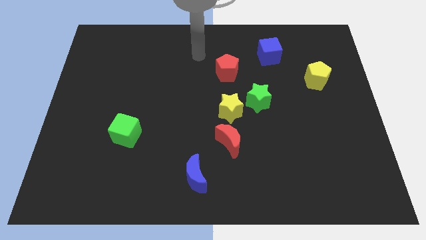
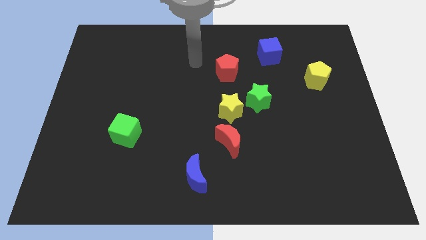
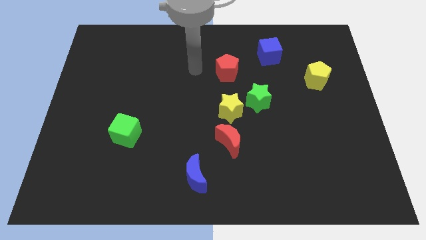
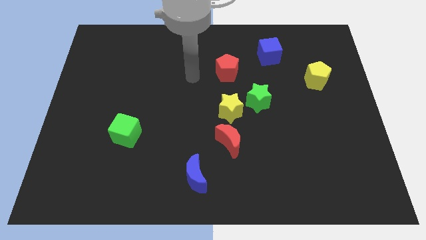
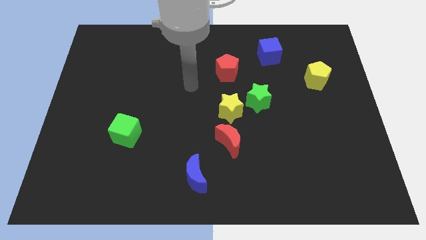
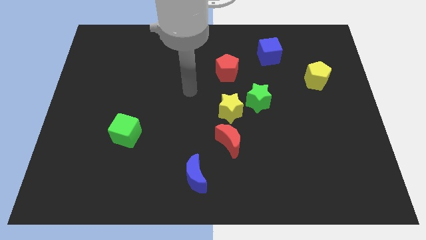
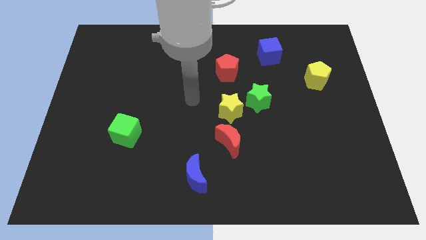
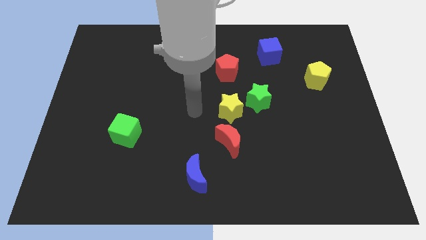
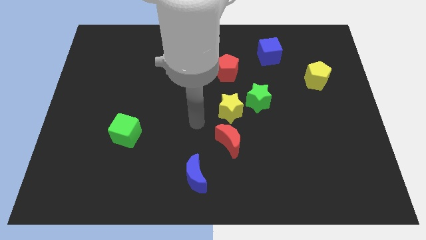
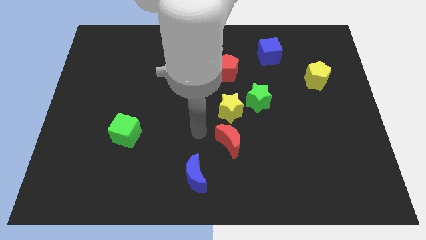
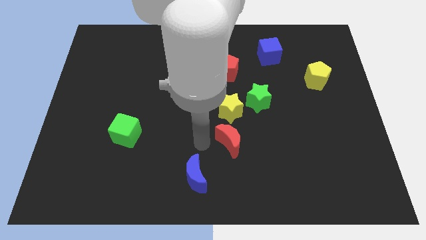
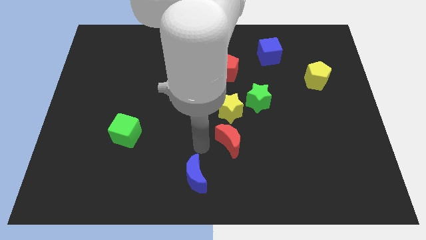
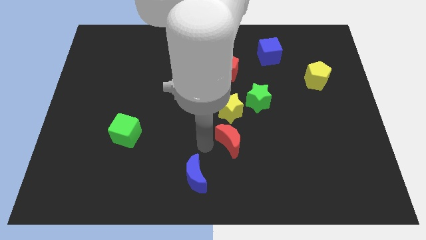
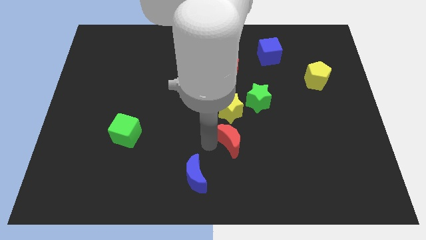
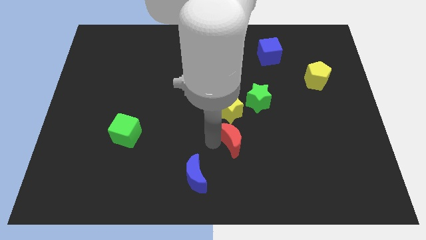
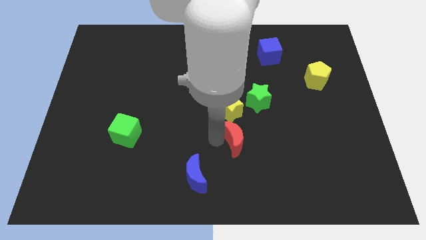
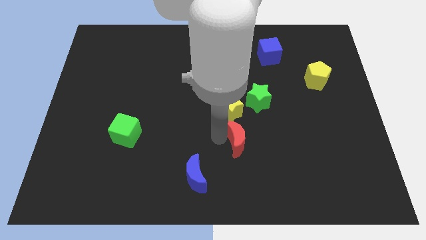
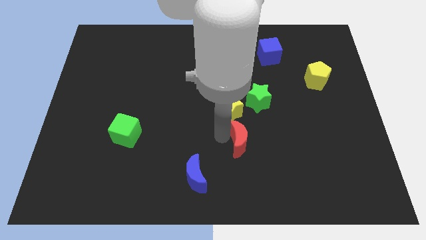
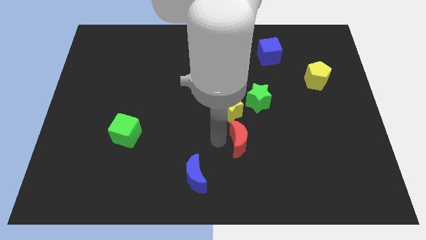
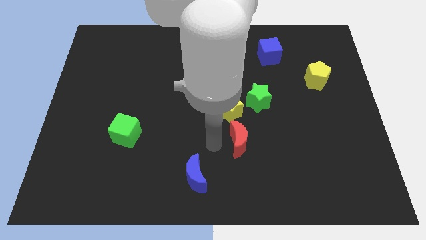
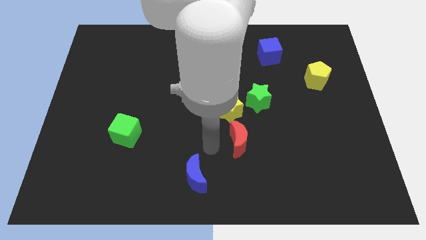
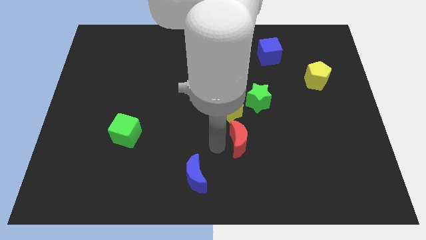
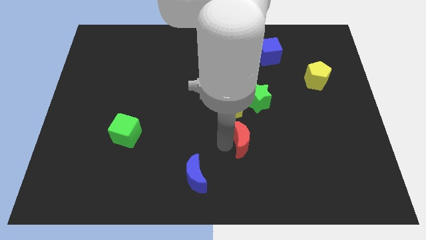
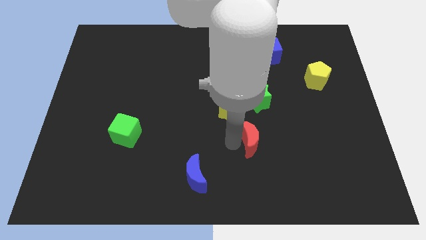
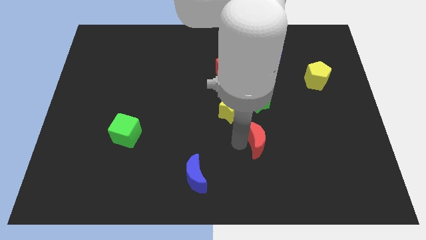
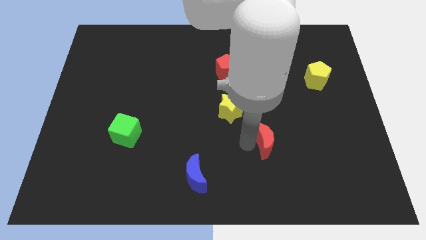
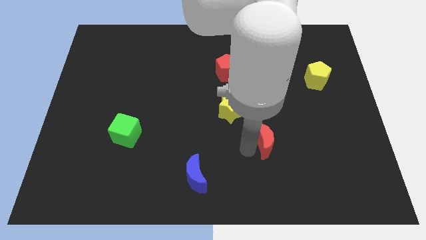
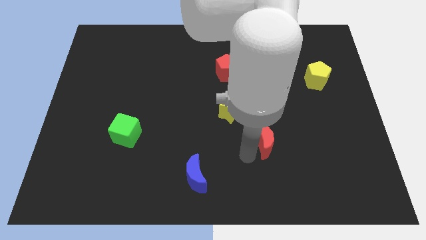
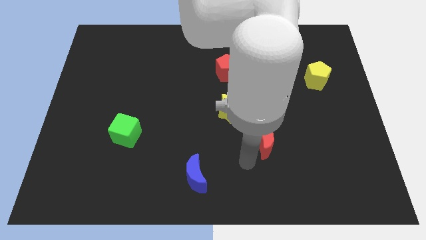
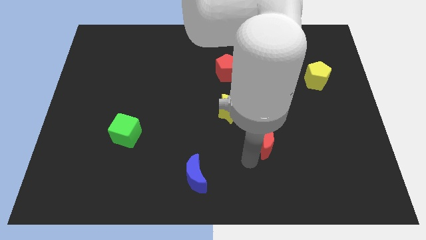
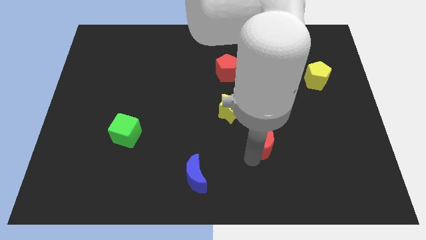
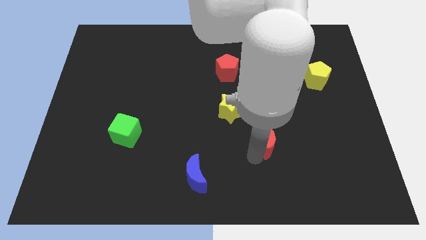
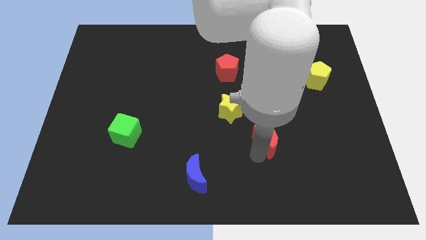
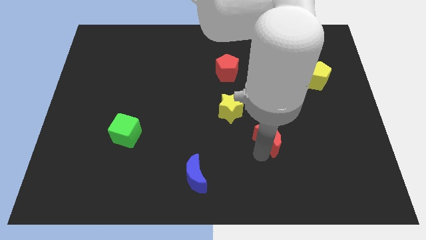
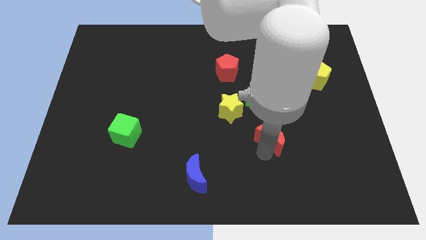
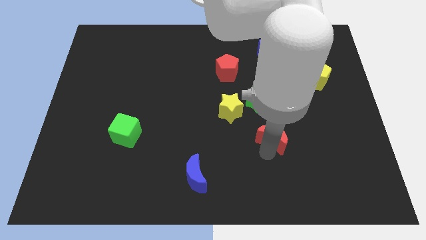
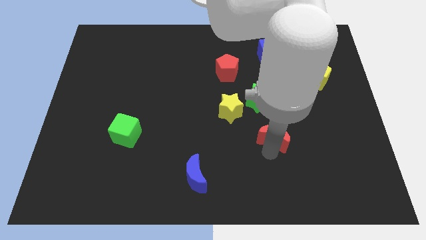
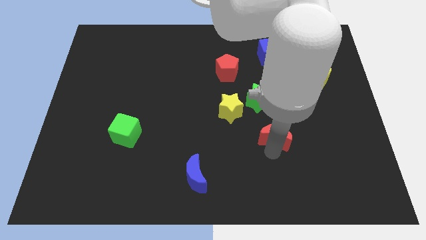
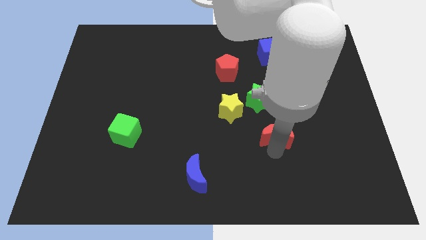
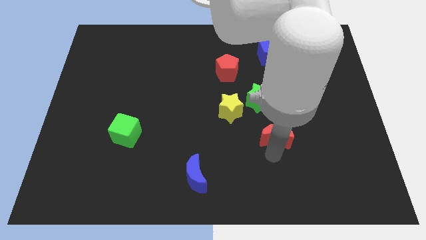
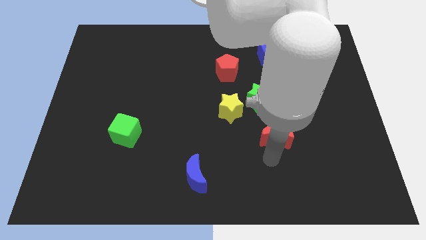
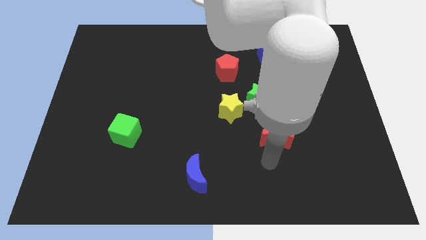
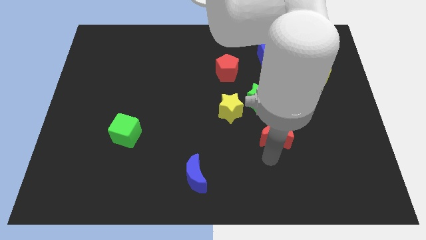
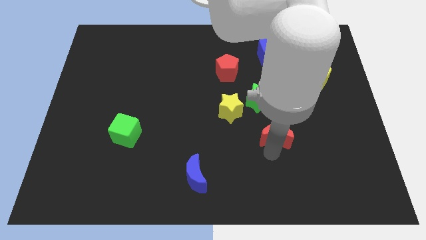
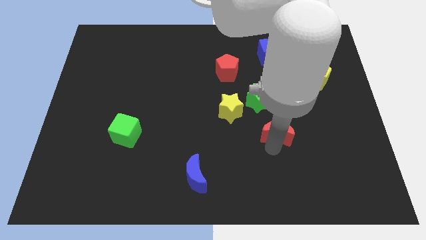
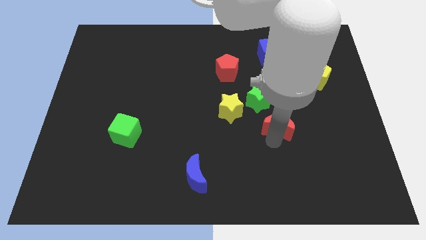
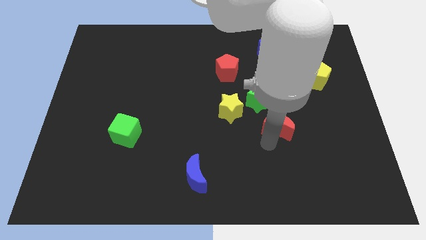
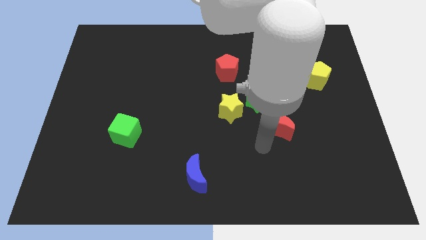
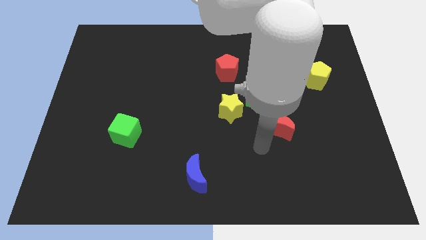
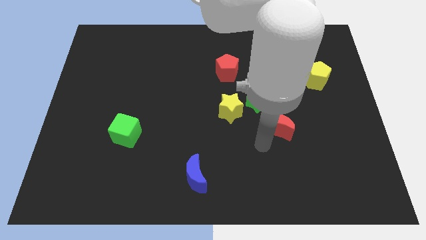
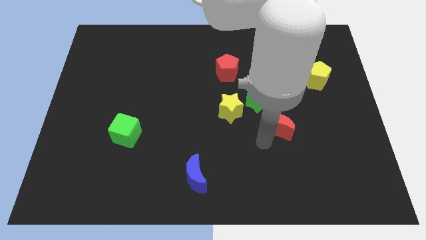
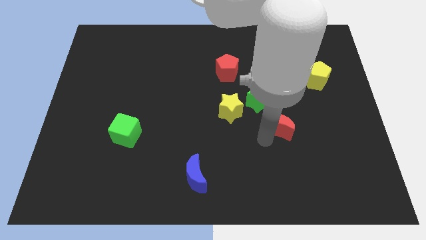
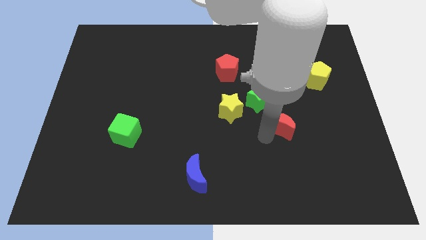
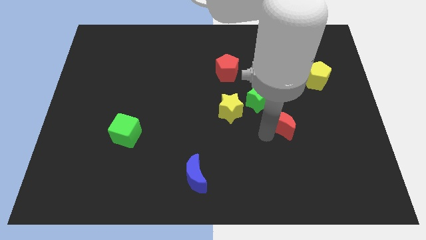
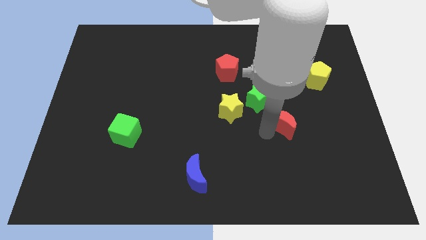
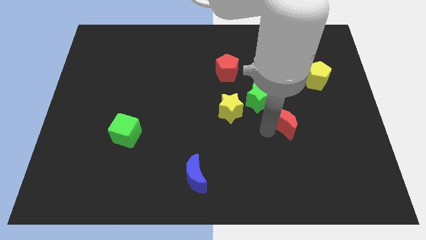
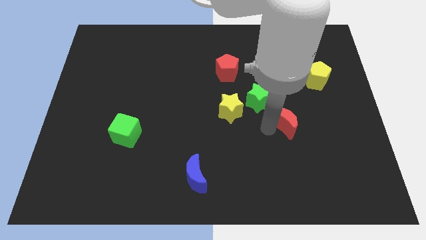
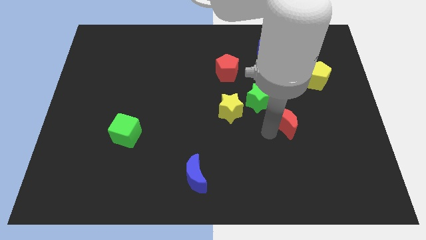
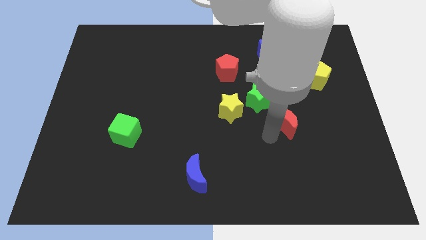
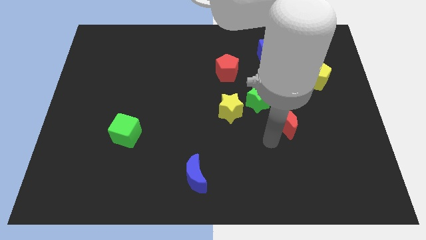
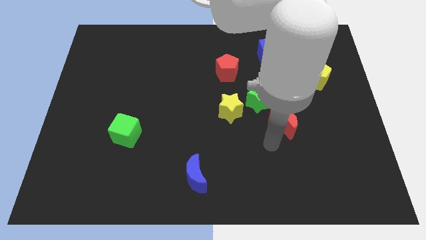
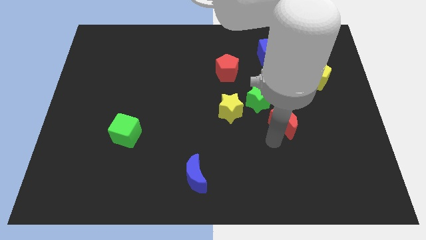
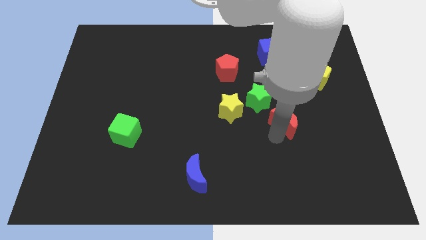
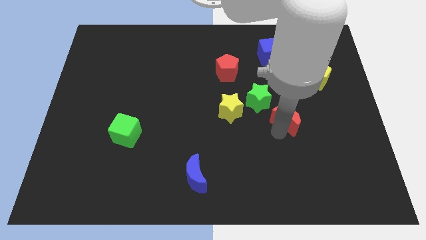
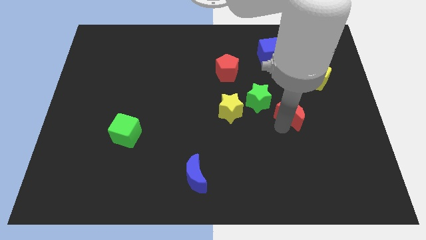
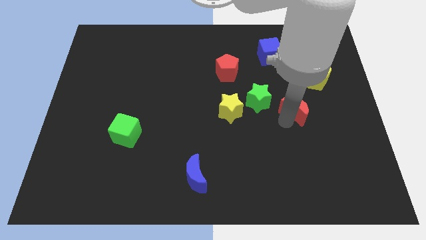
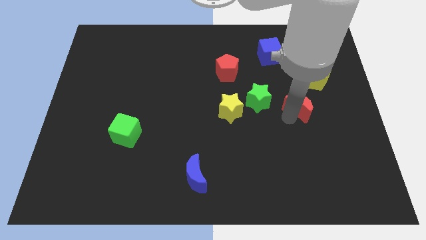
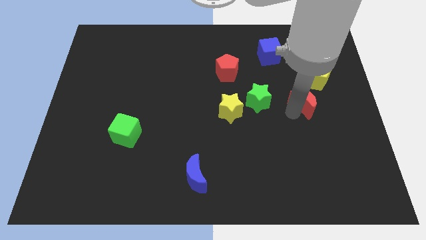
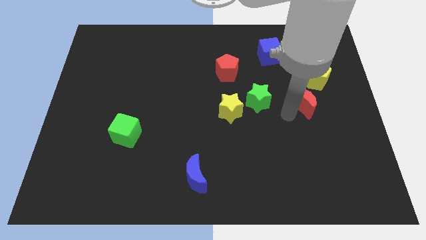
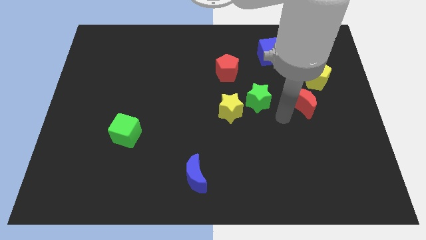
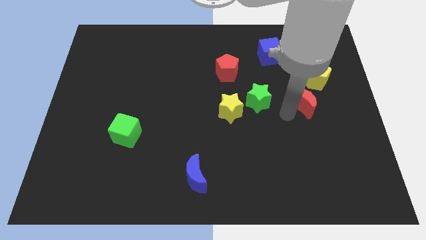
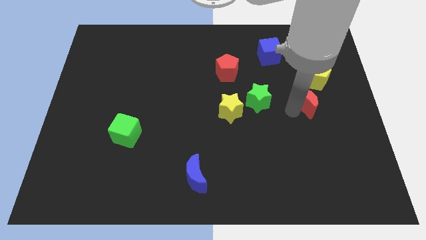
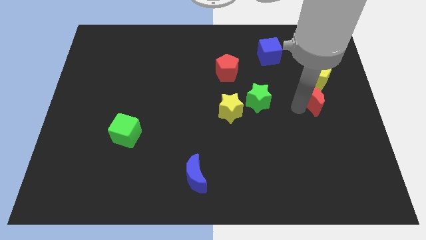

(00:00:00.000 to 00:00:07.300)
slide the red moon upwards and to the right

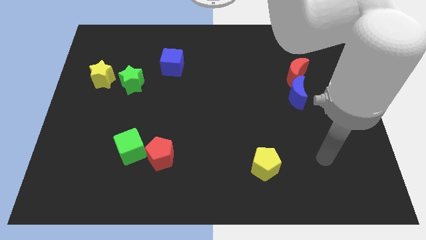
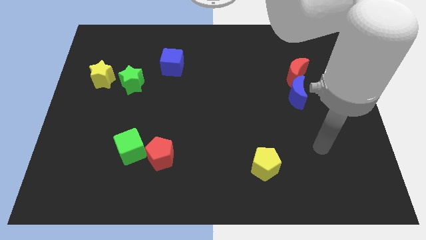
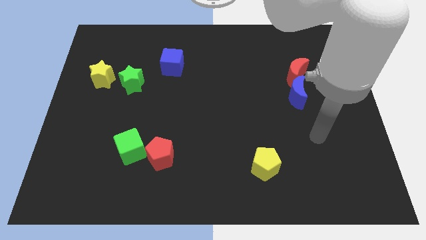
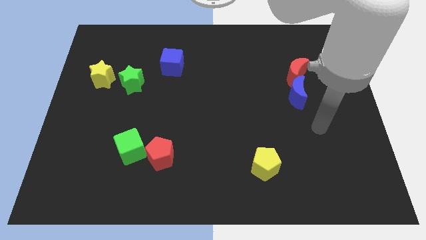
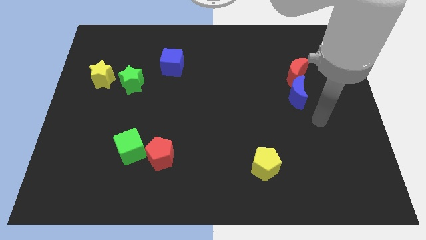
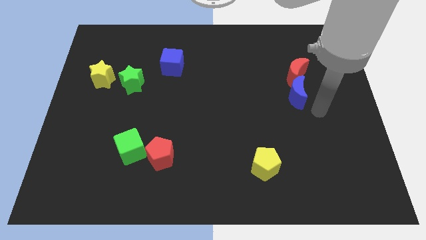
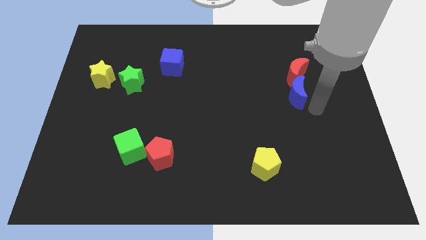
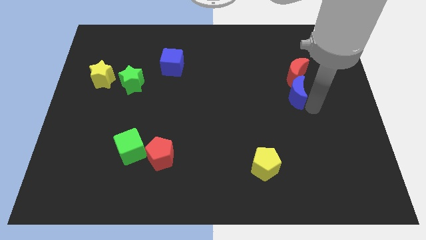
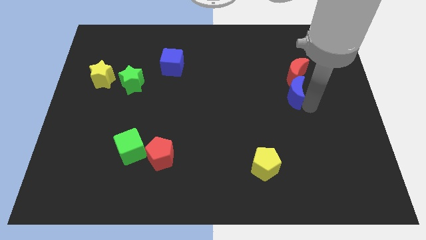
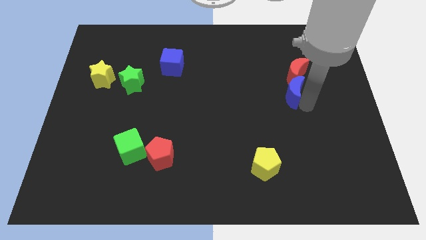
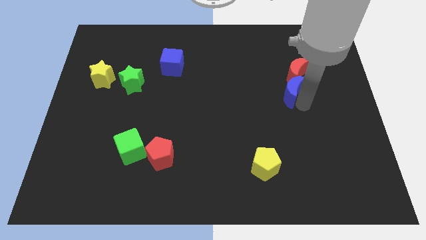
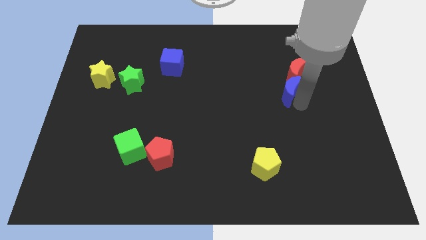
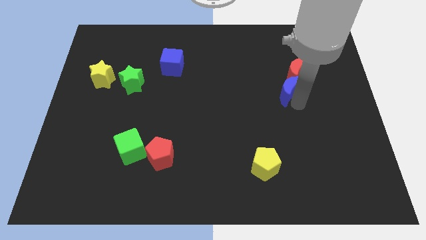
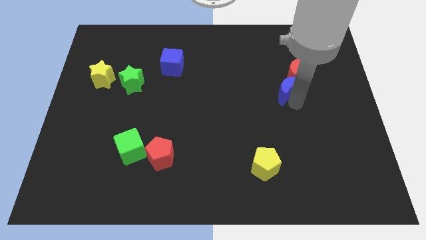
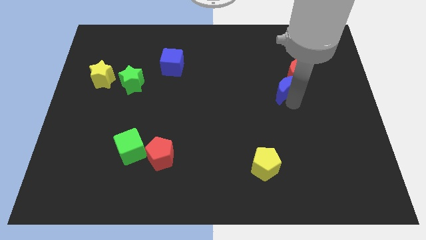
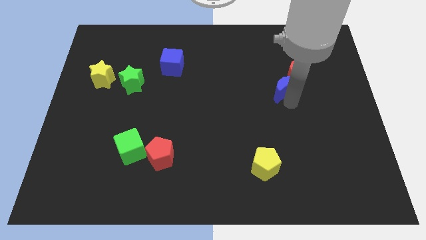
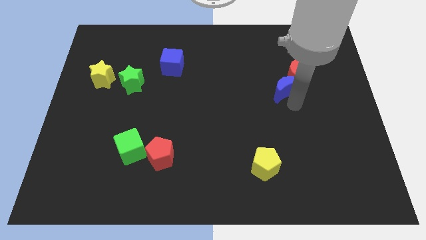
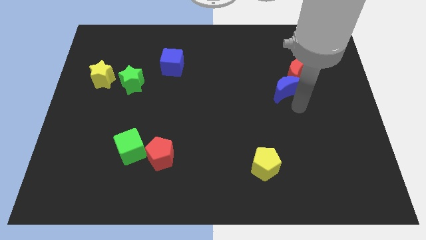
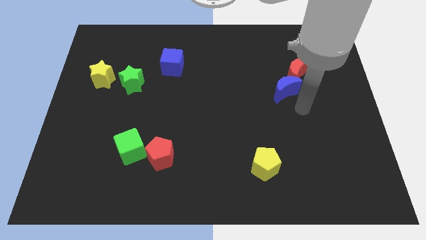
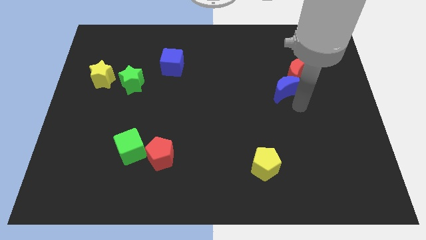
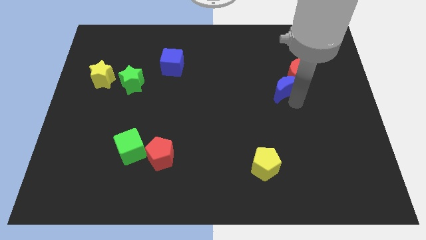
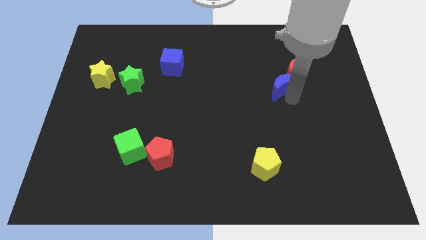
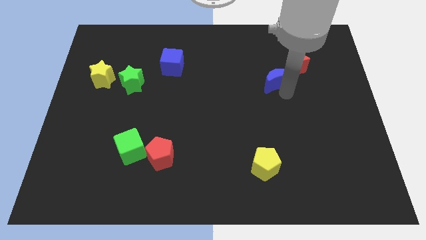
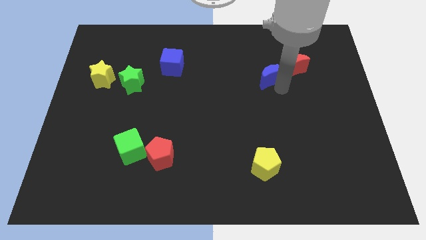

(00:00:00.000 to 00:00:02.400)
slightly push the blue moon upwards and then left
